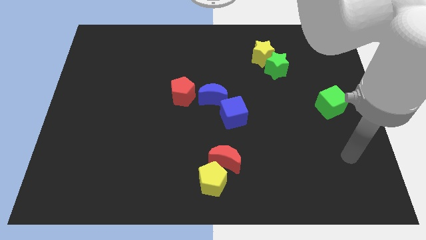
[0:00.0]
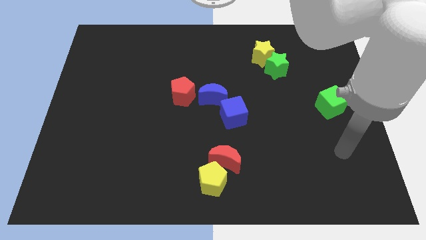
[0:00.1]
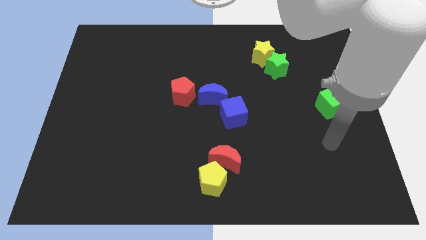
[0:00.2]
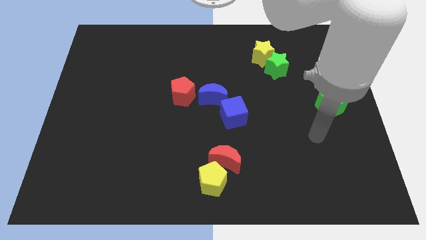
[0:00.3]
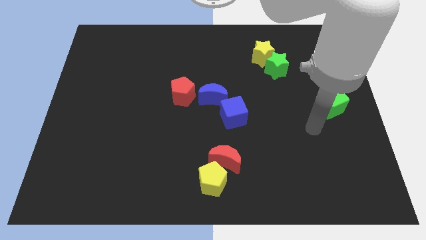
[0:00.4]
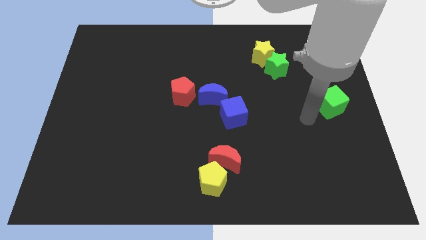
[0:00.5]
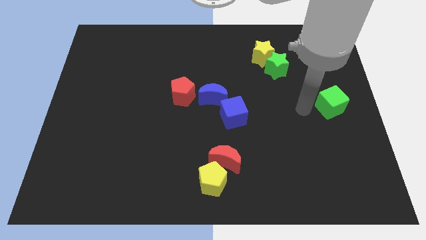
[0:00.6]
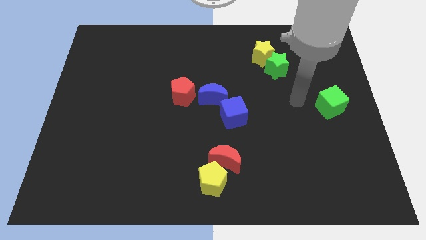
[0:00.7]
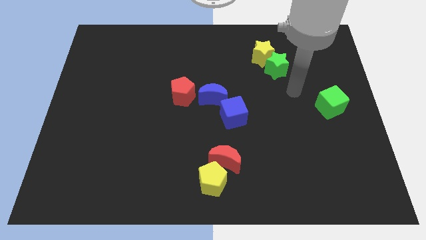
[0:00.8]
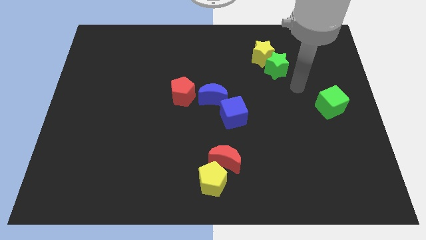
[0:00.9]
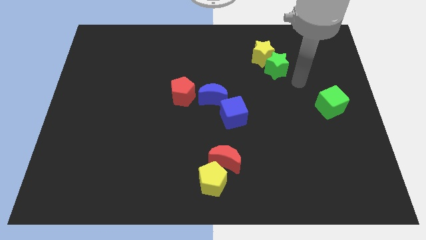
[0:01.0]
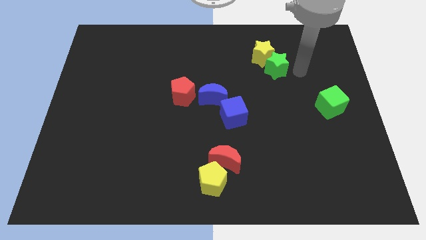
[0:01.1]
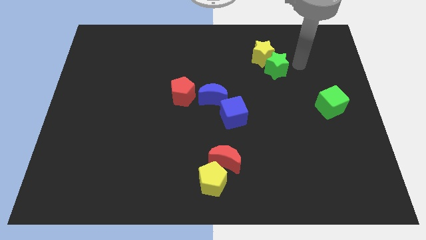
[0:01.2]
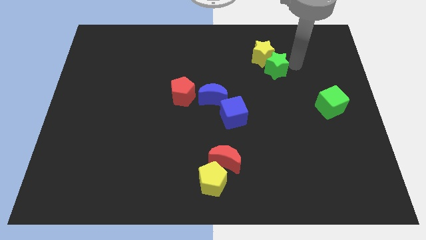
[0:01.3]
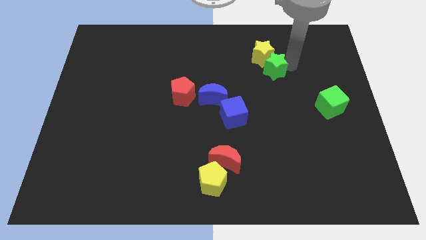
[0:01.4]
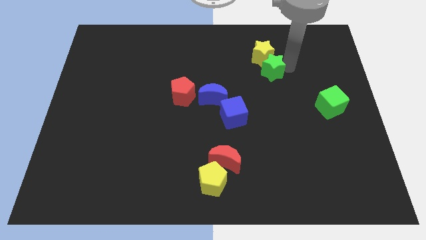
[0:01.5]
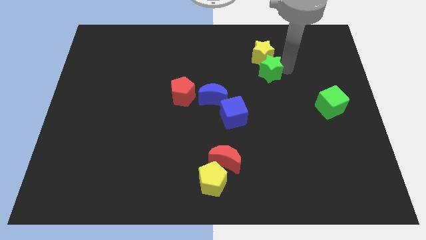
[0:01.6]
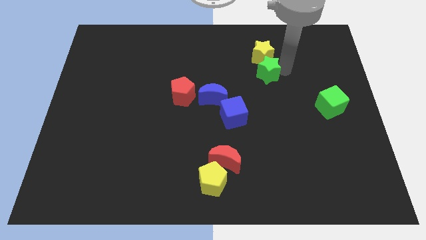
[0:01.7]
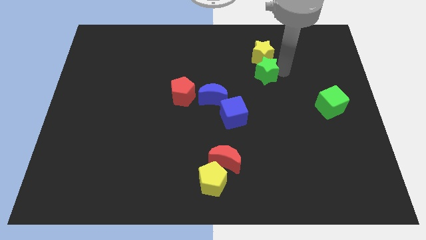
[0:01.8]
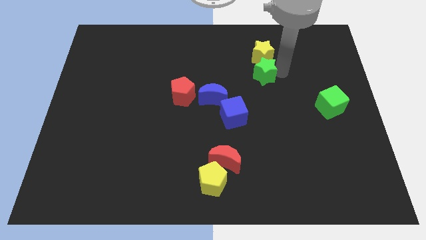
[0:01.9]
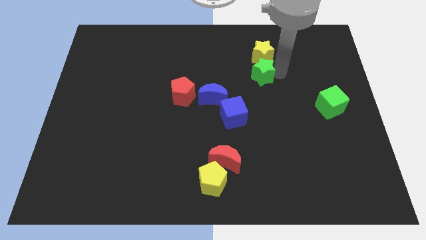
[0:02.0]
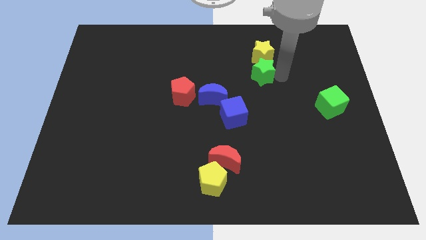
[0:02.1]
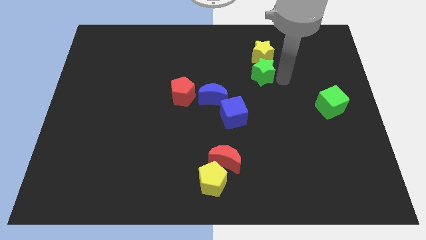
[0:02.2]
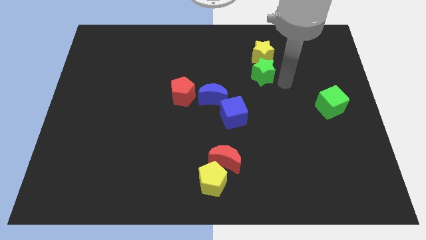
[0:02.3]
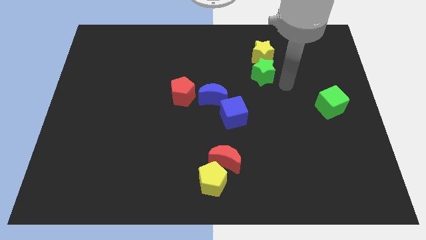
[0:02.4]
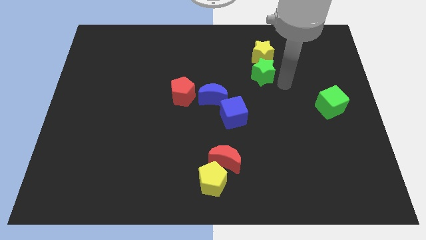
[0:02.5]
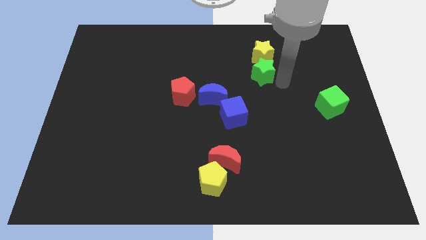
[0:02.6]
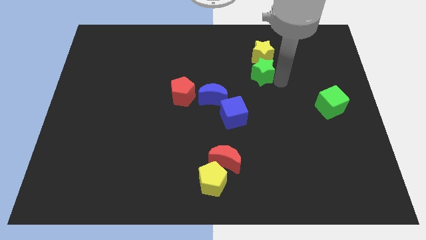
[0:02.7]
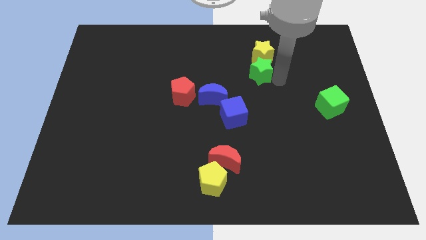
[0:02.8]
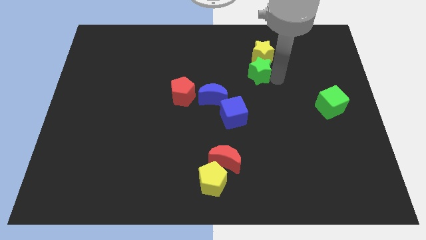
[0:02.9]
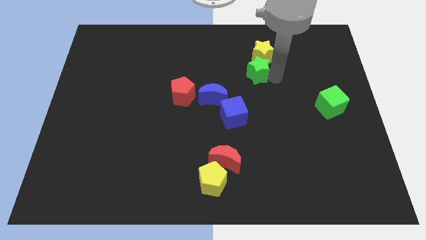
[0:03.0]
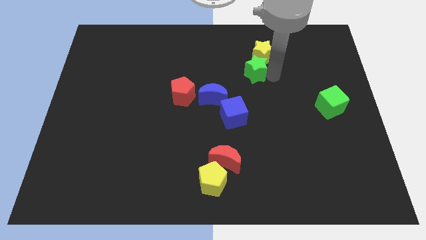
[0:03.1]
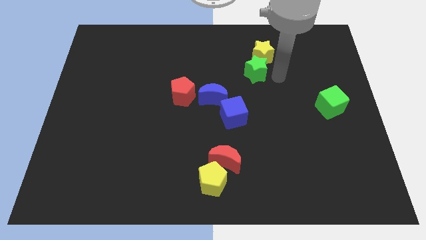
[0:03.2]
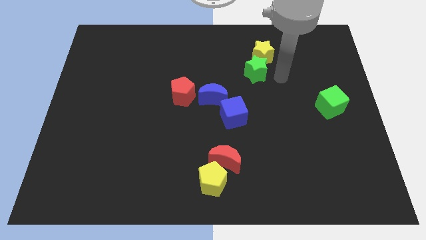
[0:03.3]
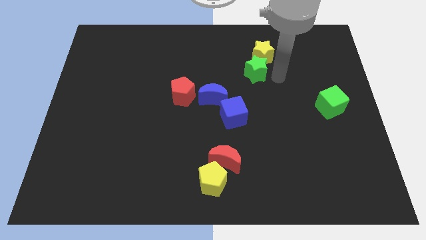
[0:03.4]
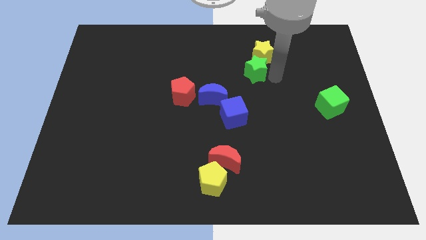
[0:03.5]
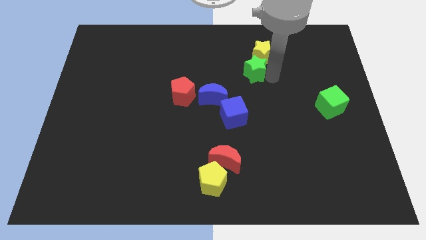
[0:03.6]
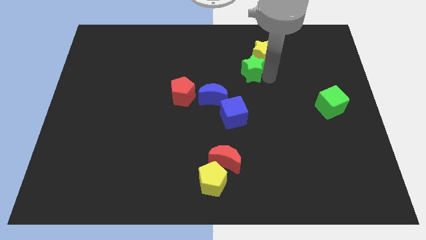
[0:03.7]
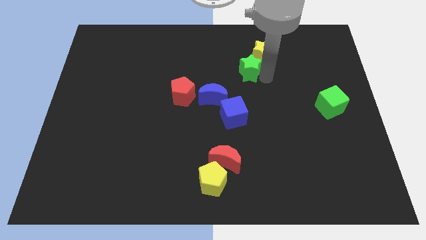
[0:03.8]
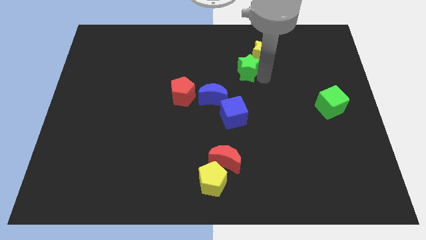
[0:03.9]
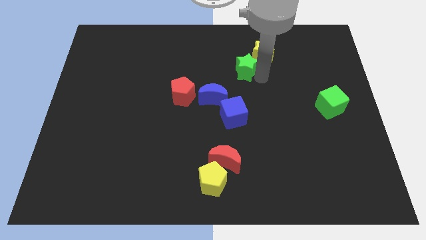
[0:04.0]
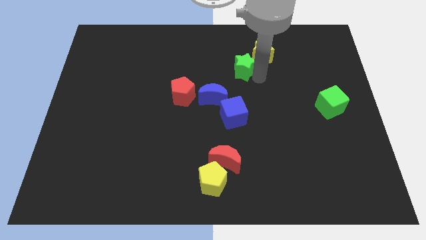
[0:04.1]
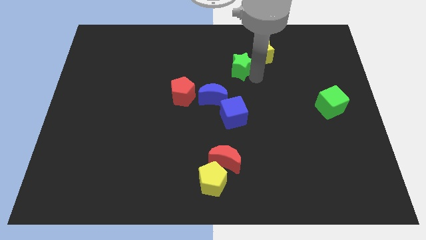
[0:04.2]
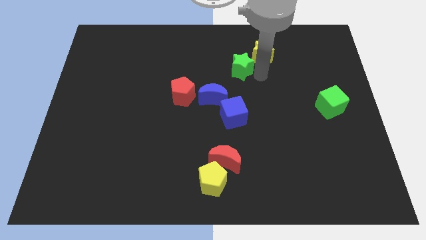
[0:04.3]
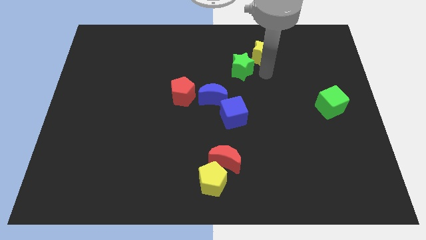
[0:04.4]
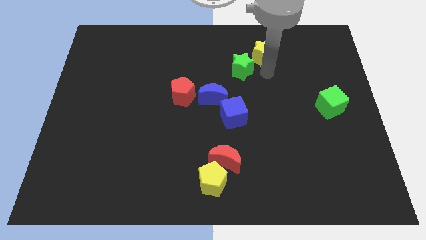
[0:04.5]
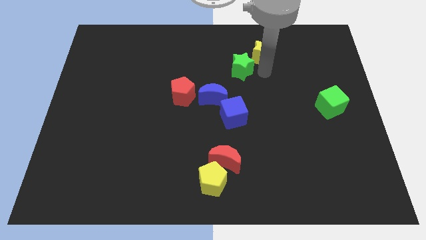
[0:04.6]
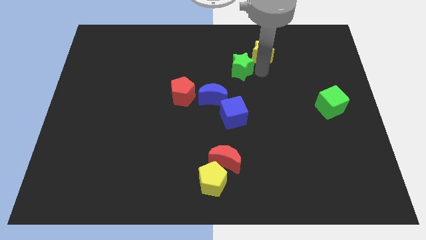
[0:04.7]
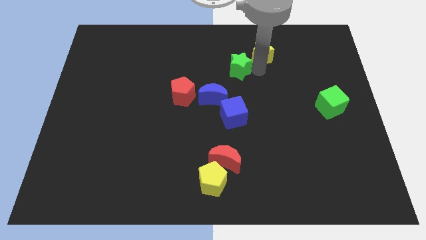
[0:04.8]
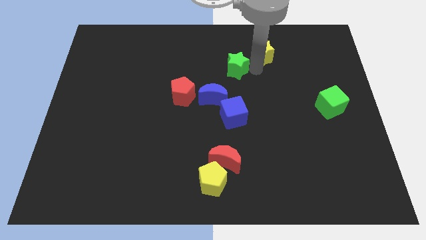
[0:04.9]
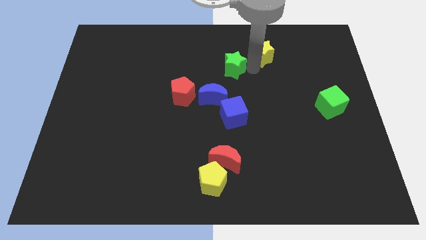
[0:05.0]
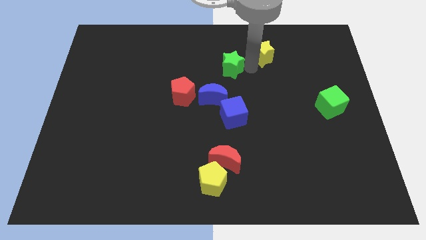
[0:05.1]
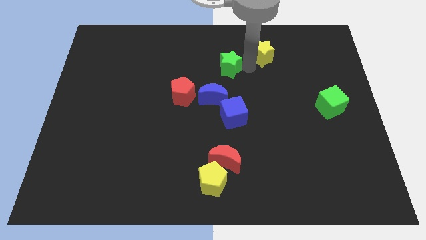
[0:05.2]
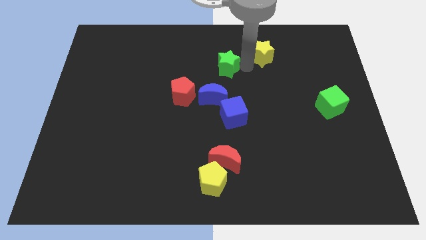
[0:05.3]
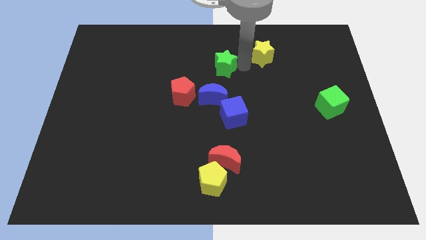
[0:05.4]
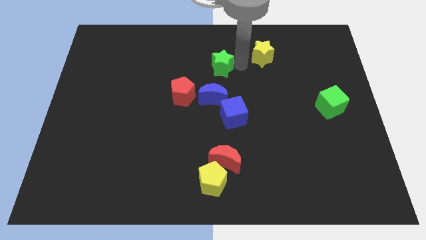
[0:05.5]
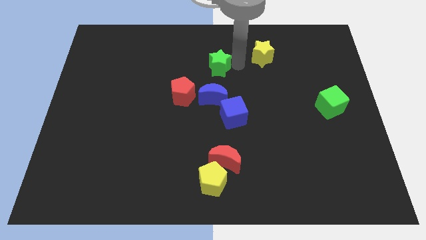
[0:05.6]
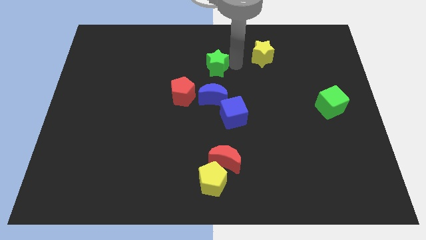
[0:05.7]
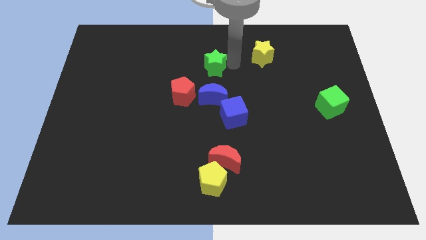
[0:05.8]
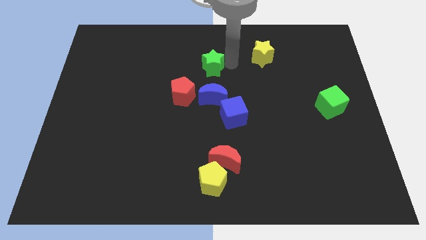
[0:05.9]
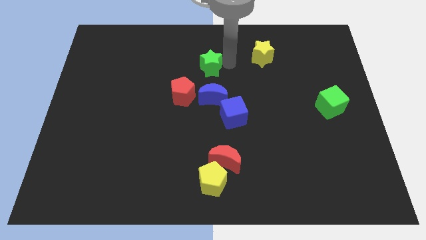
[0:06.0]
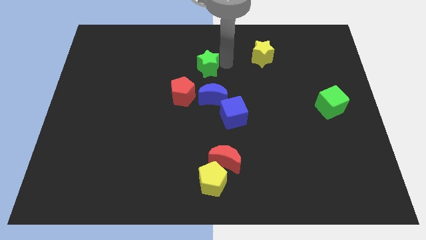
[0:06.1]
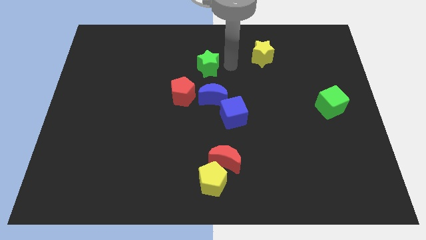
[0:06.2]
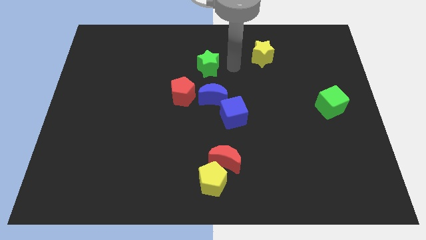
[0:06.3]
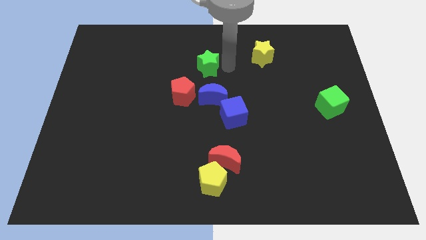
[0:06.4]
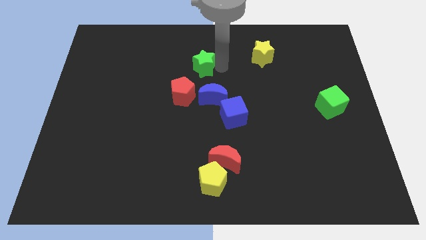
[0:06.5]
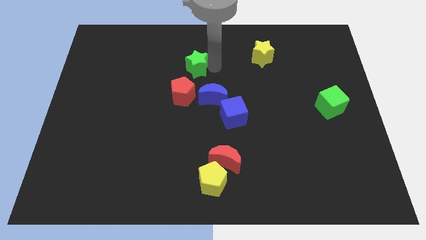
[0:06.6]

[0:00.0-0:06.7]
slide the green star to the left

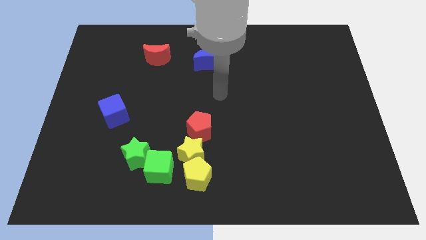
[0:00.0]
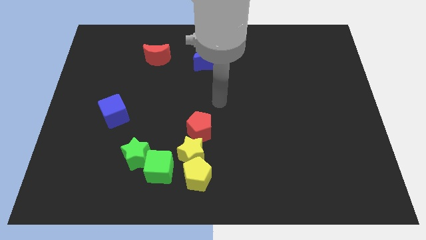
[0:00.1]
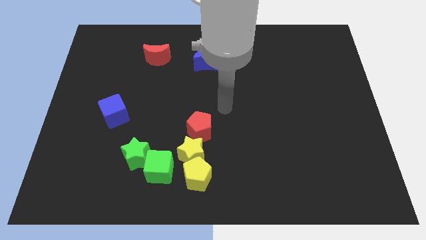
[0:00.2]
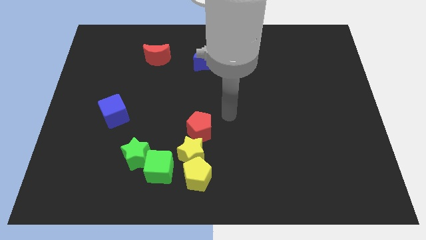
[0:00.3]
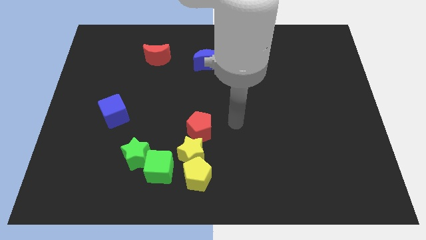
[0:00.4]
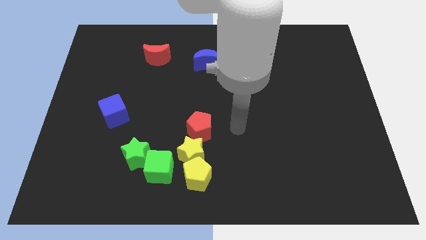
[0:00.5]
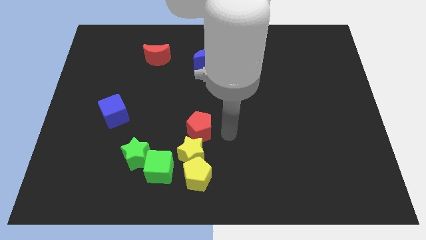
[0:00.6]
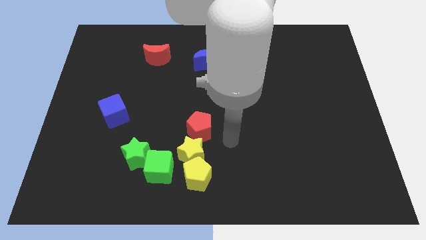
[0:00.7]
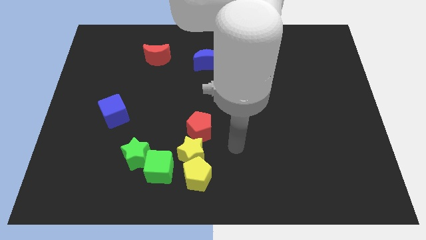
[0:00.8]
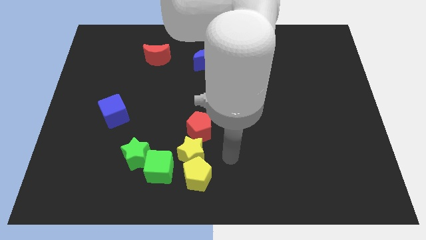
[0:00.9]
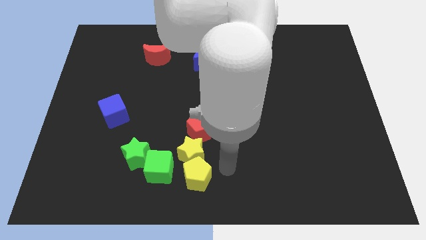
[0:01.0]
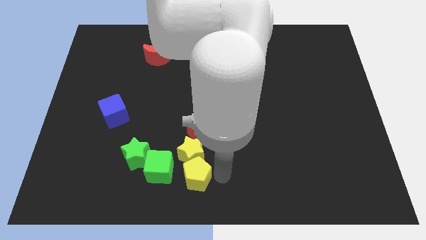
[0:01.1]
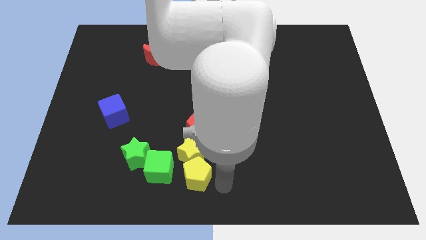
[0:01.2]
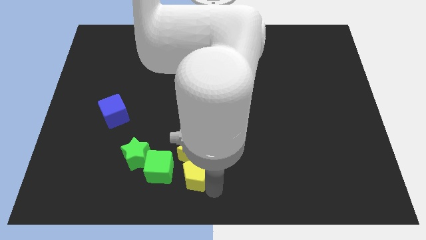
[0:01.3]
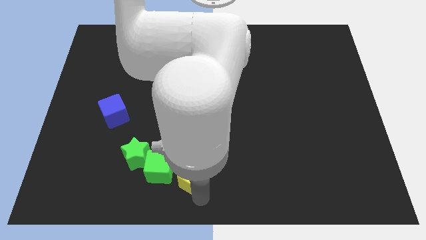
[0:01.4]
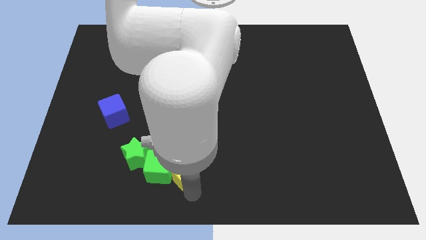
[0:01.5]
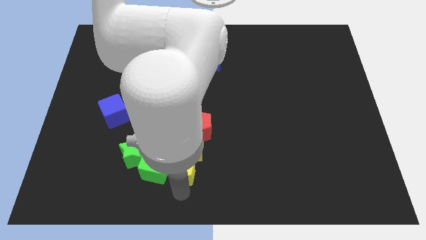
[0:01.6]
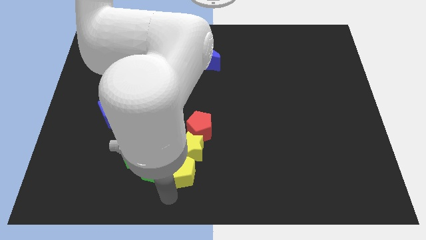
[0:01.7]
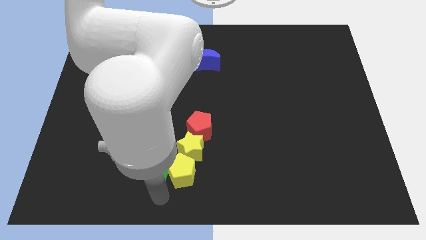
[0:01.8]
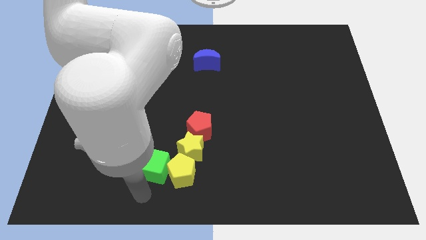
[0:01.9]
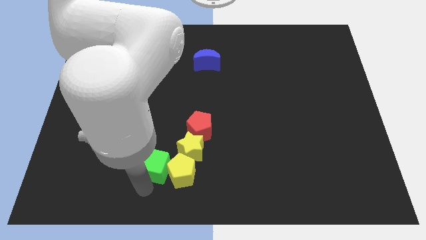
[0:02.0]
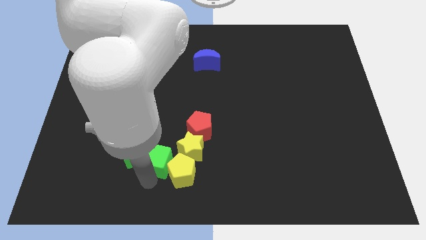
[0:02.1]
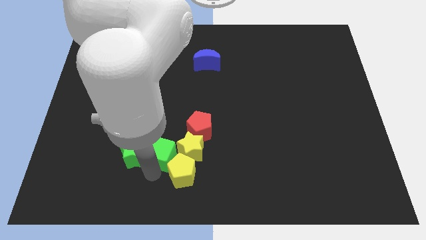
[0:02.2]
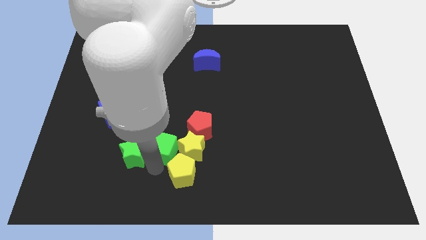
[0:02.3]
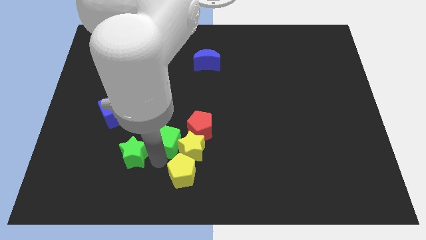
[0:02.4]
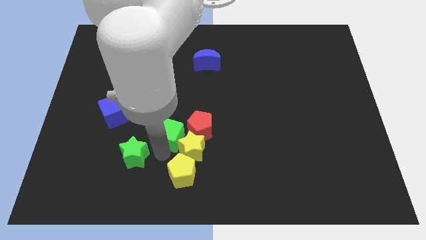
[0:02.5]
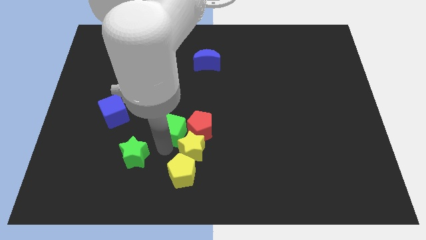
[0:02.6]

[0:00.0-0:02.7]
move the green cube a bit upwards and right
